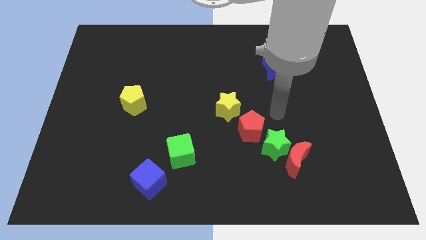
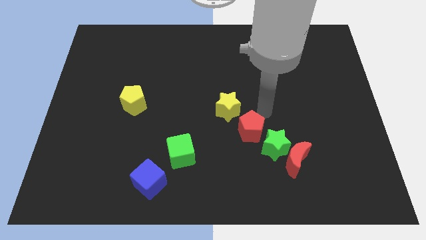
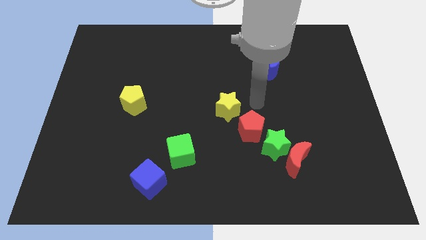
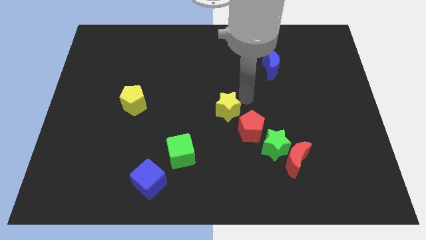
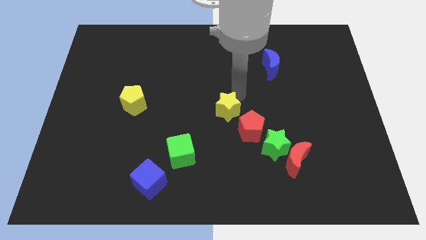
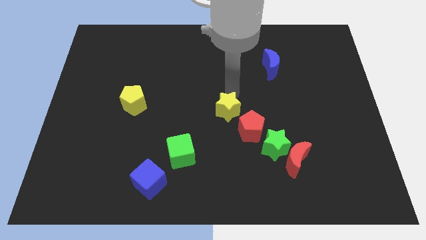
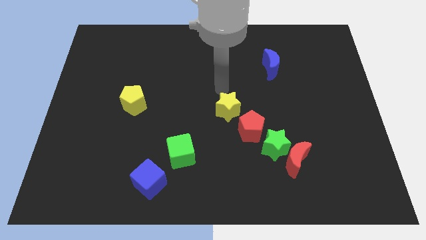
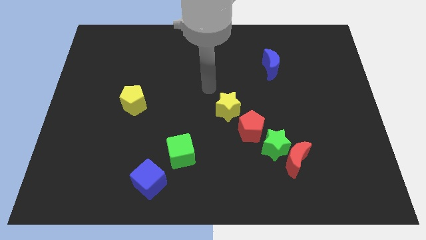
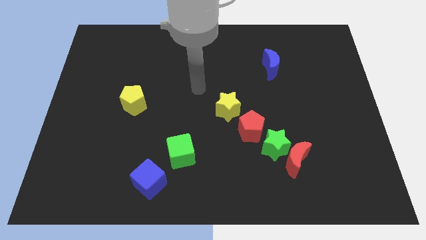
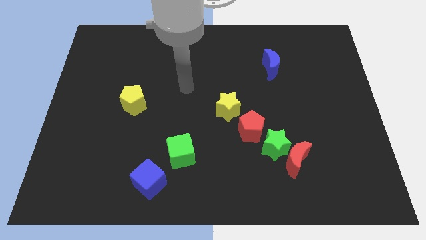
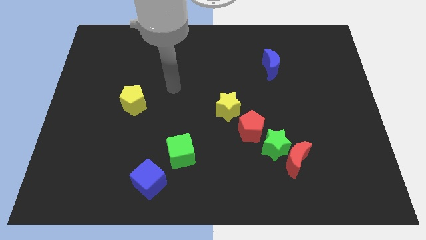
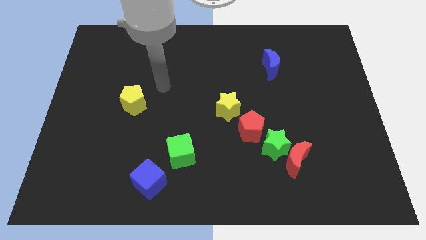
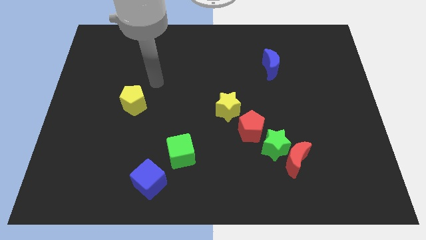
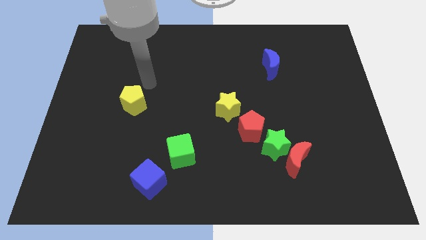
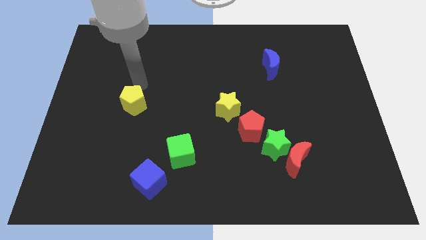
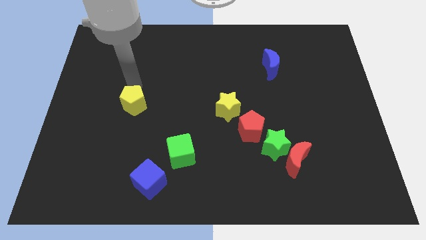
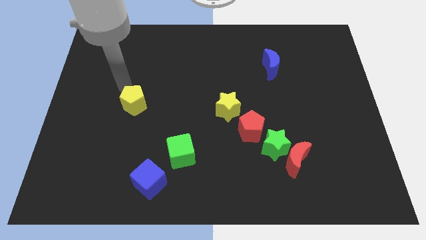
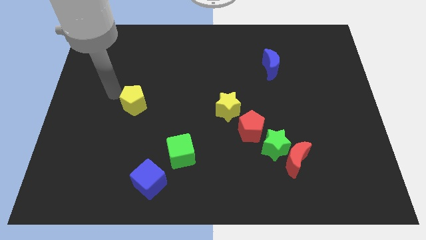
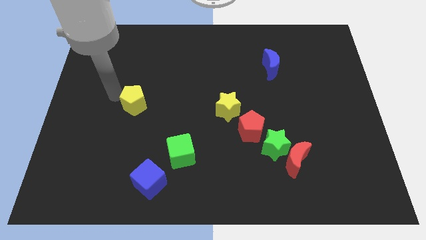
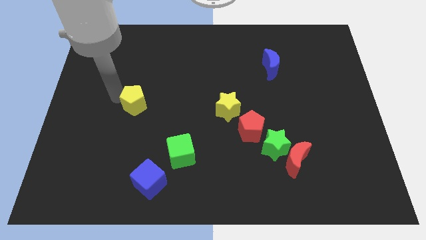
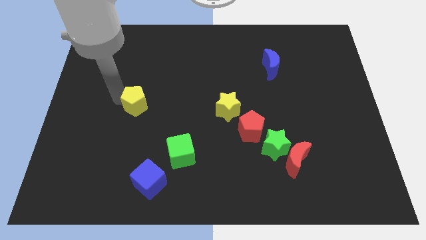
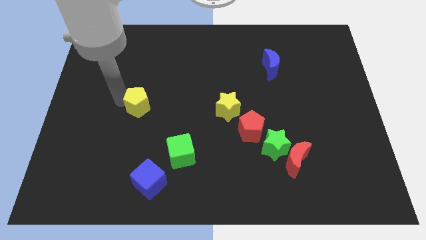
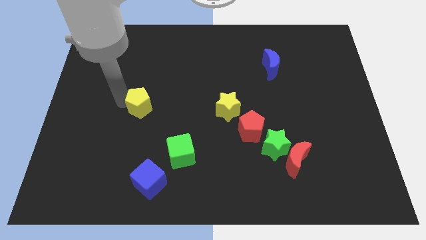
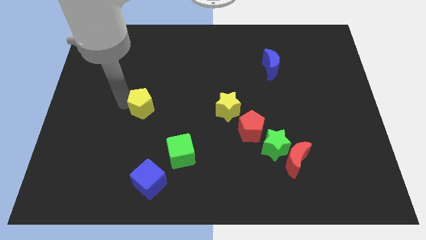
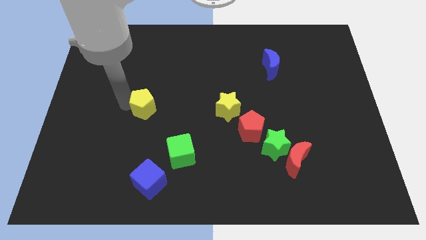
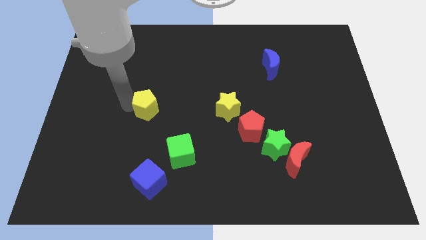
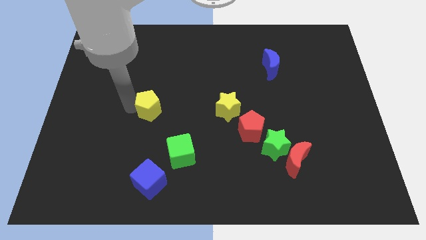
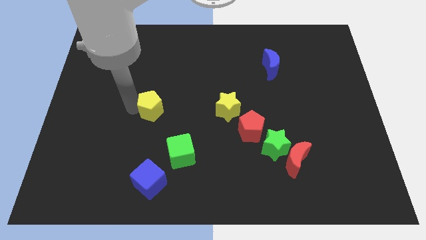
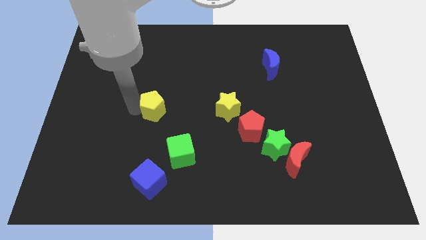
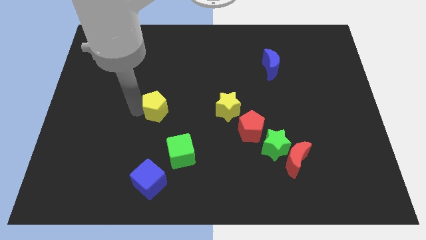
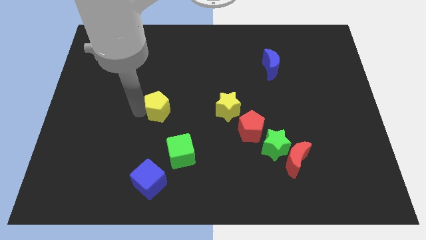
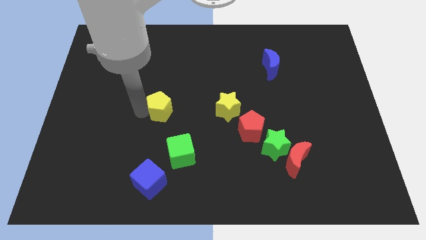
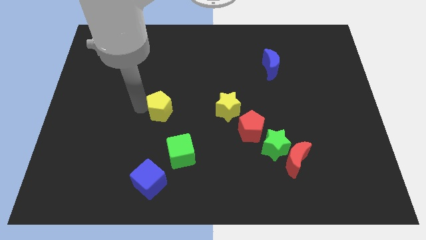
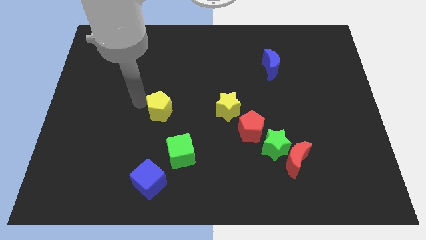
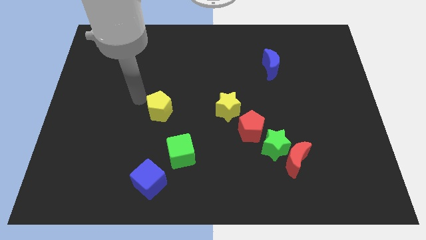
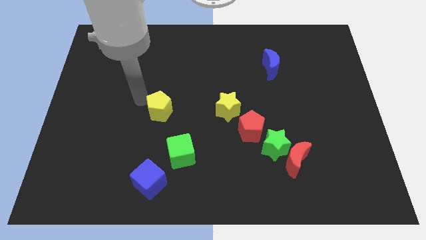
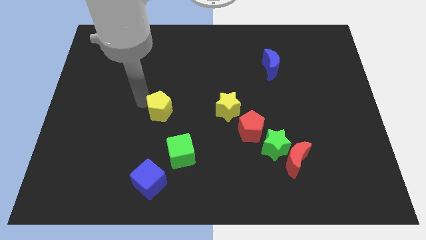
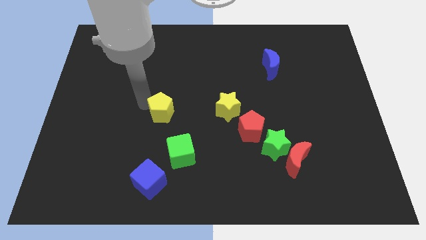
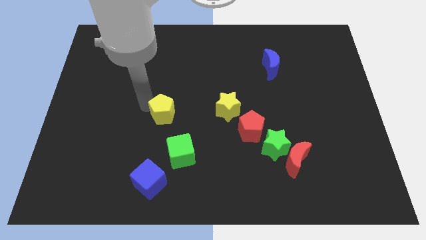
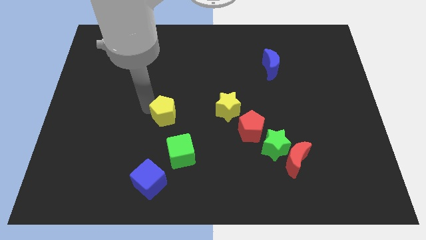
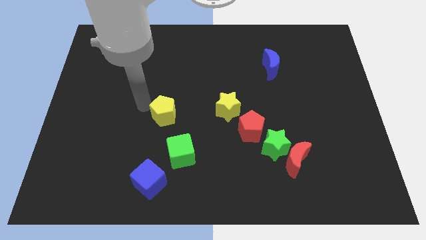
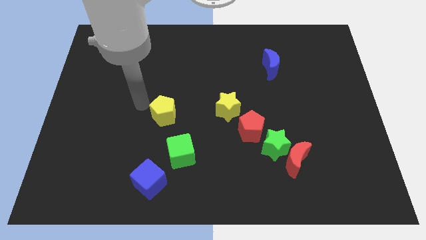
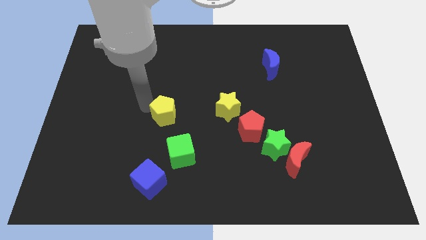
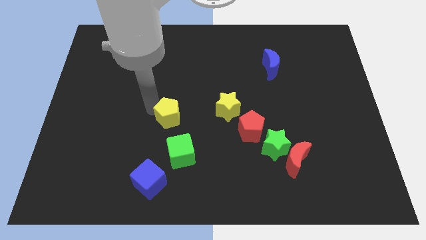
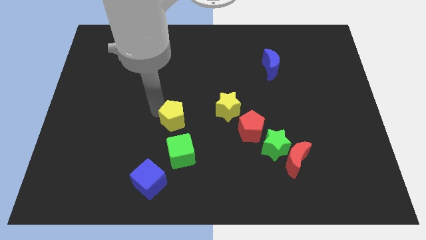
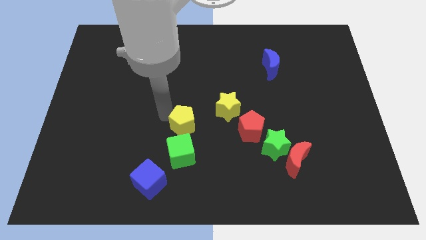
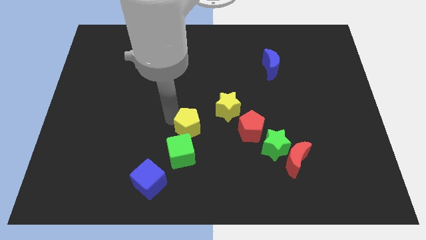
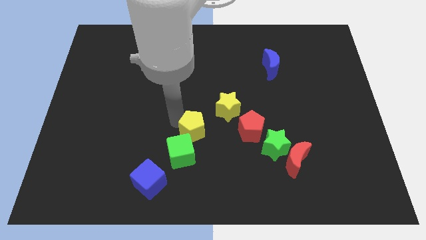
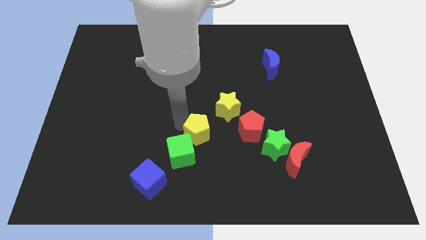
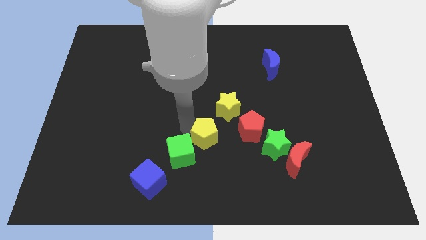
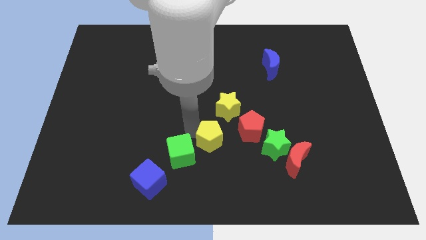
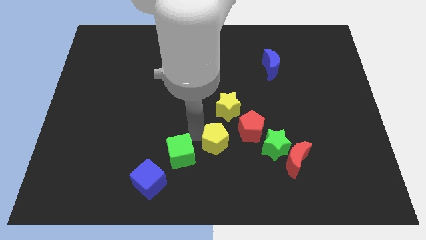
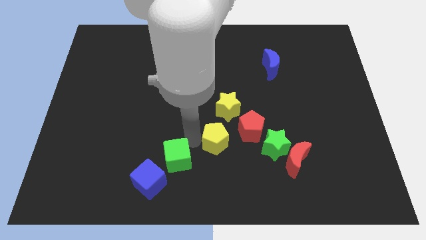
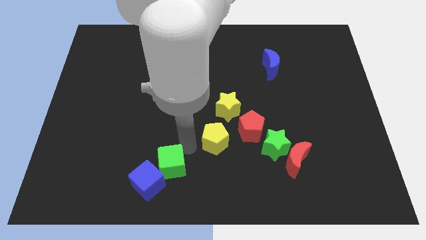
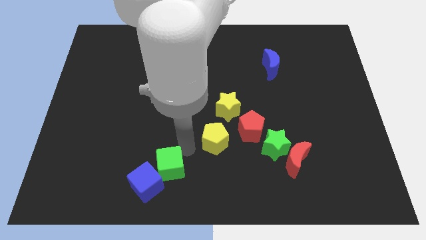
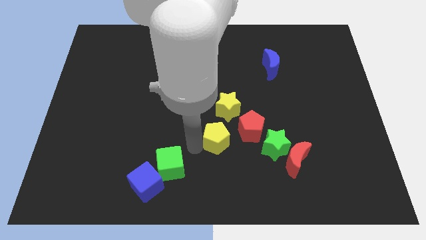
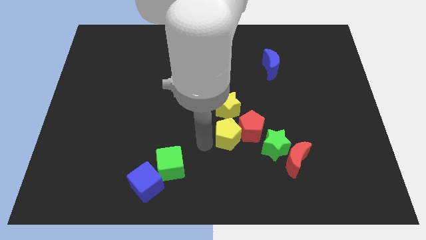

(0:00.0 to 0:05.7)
slide the yellow pentagon to the red pentagon

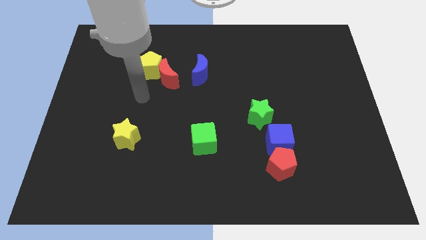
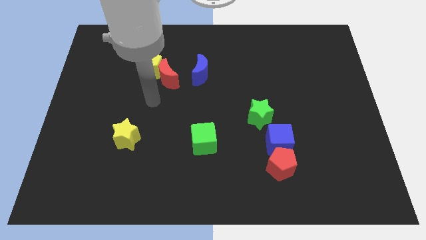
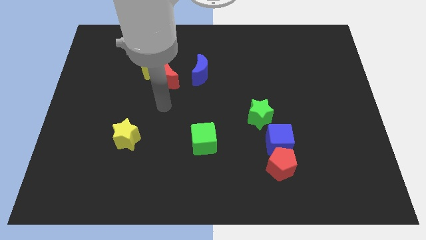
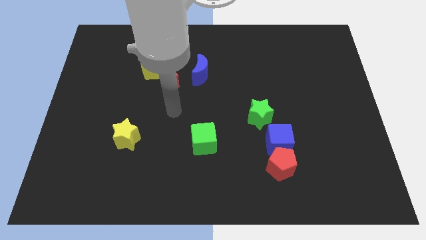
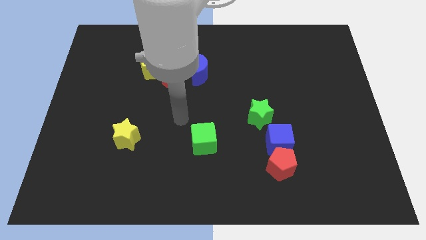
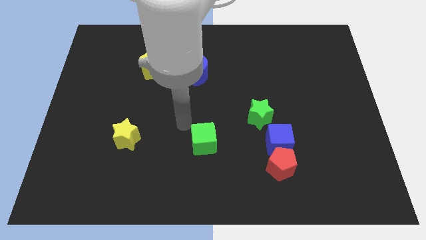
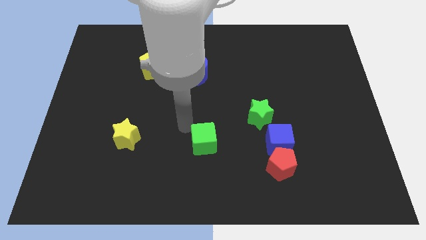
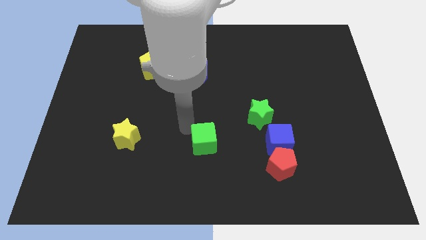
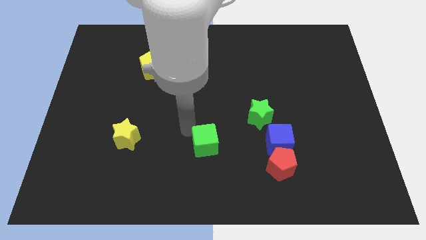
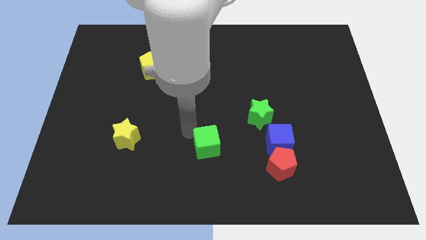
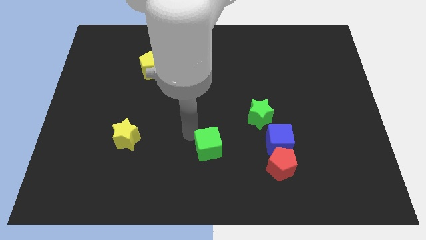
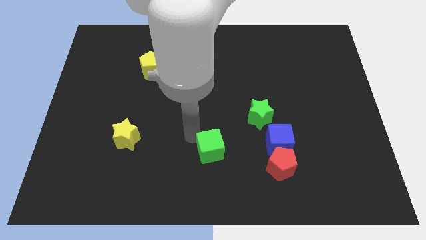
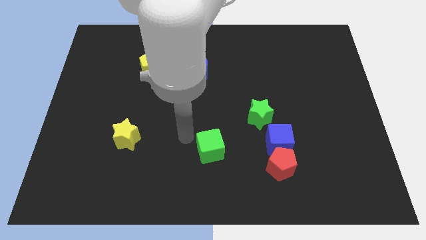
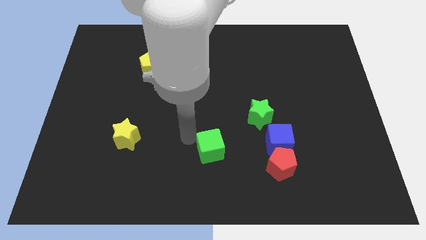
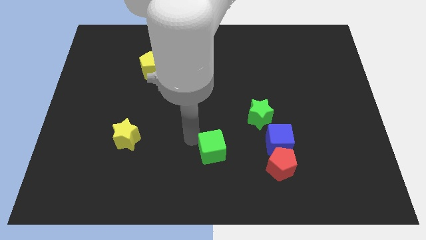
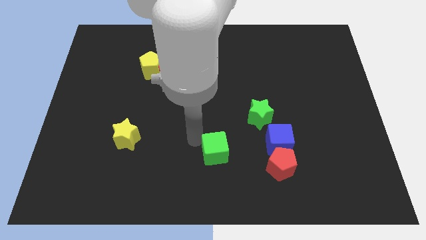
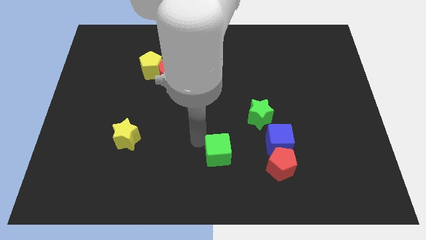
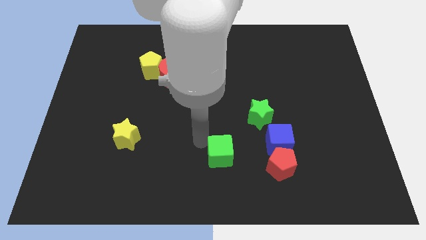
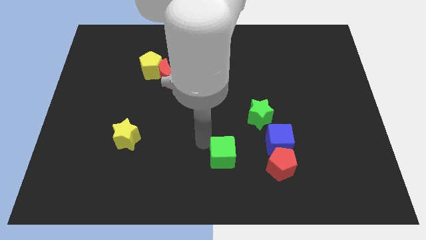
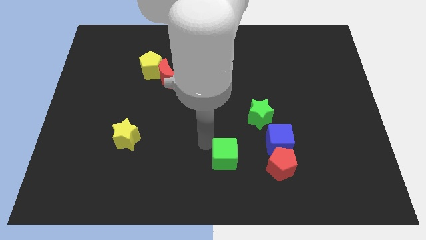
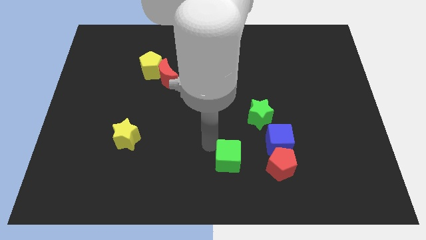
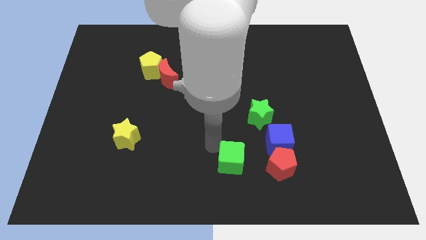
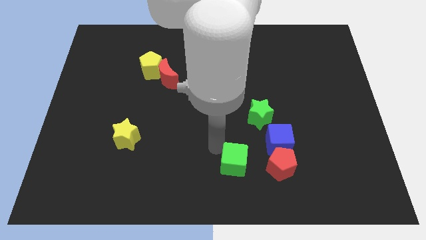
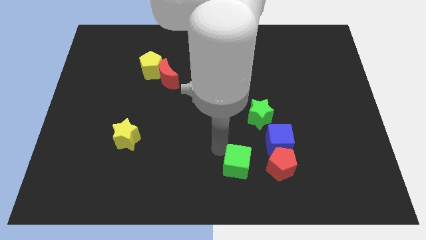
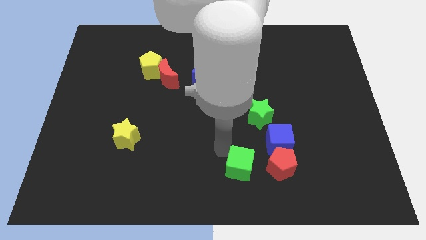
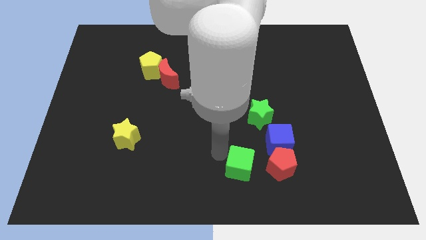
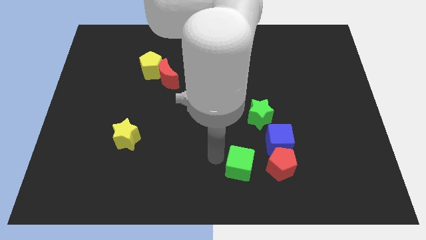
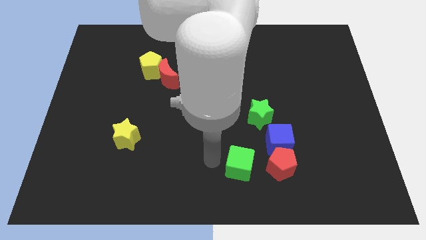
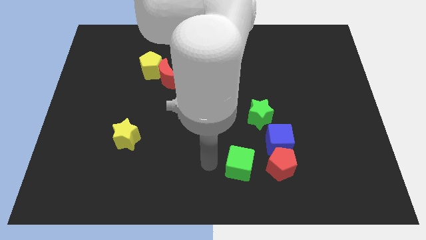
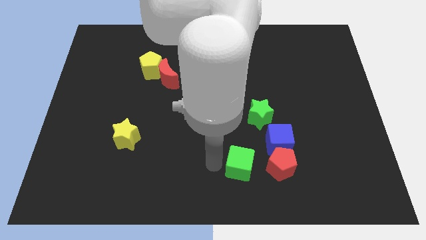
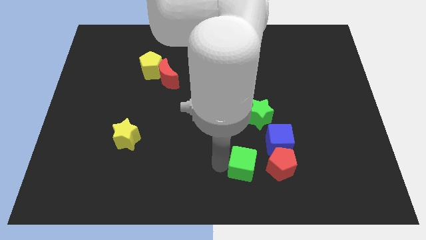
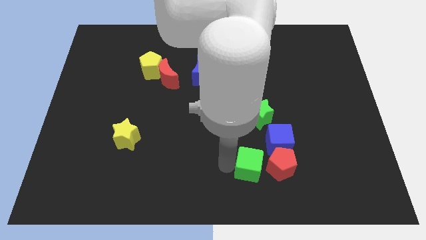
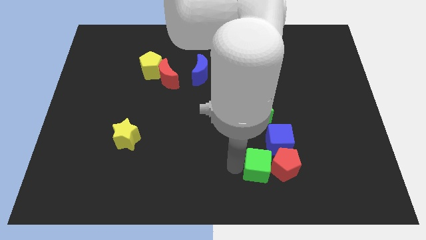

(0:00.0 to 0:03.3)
move the green cube next to the red pentagon
